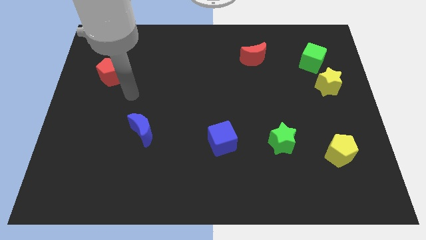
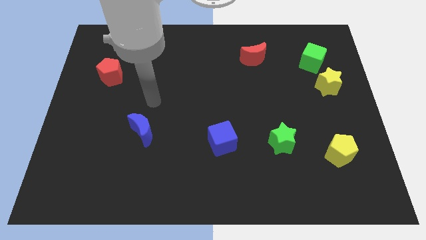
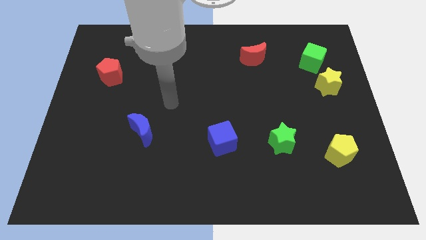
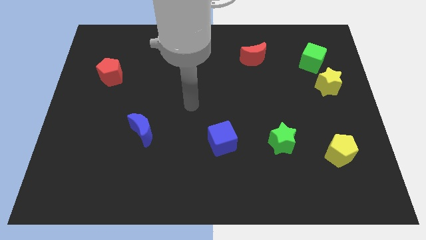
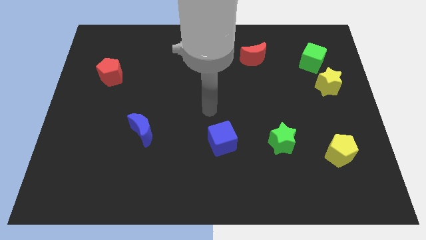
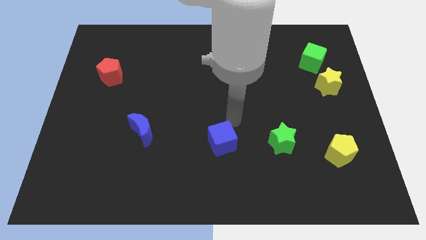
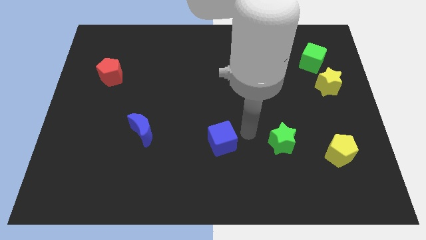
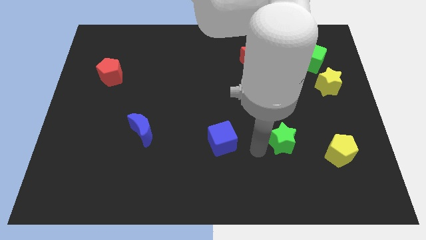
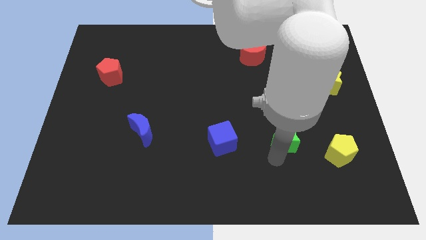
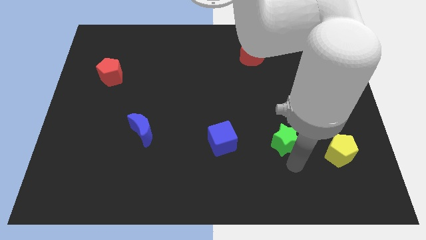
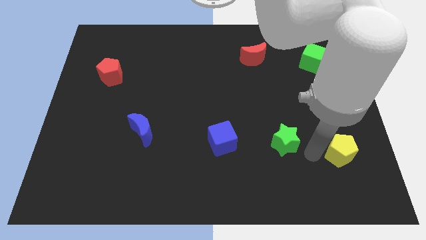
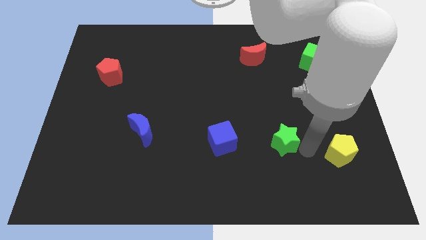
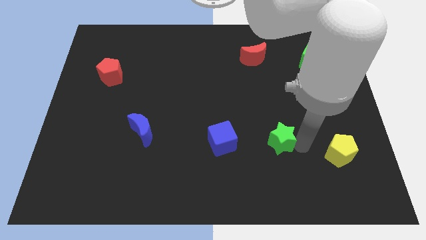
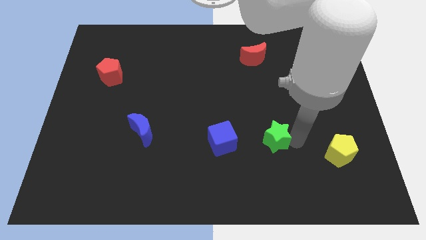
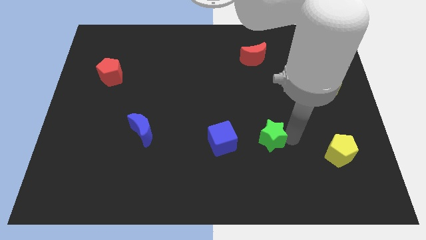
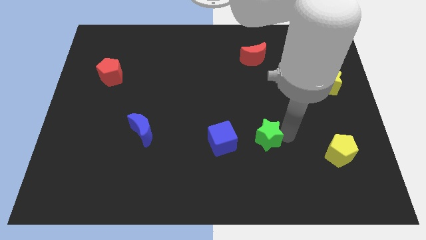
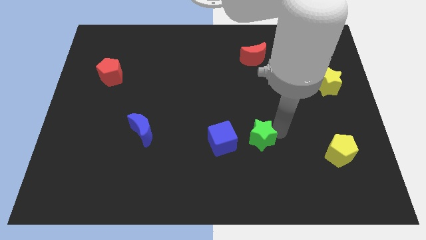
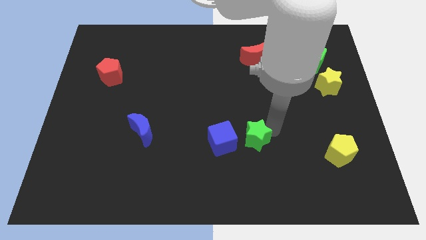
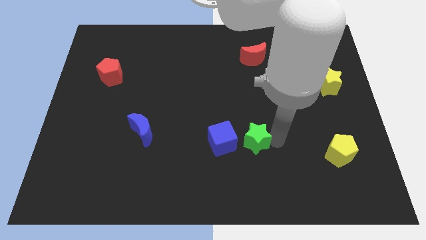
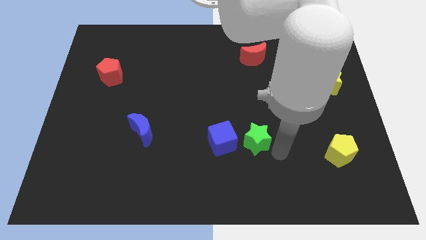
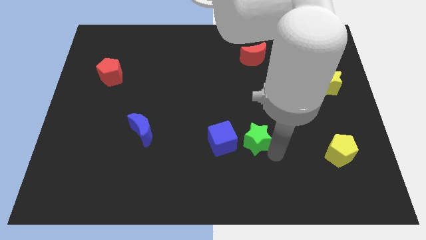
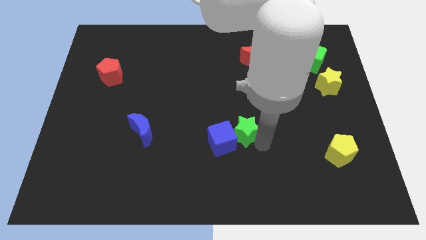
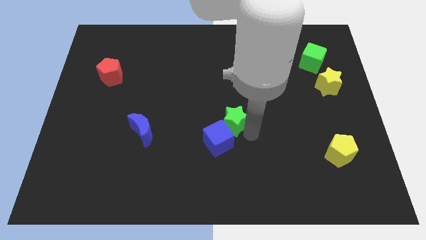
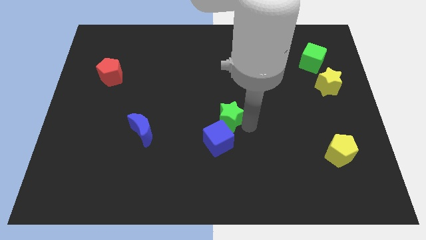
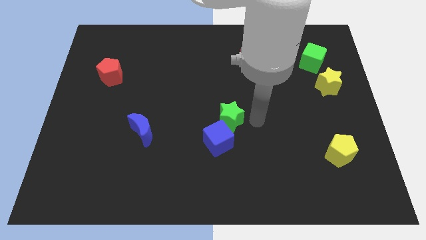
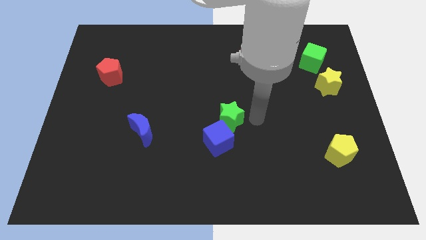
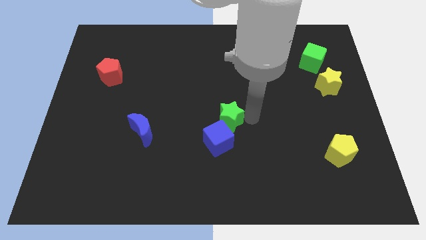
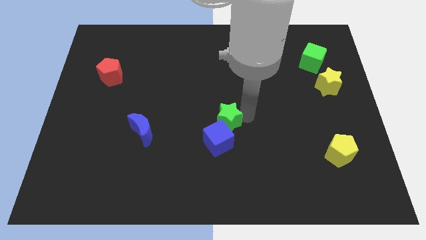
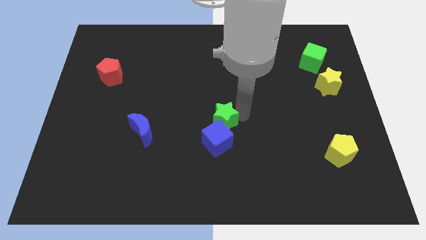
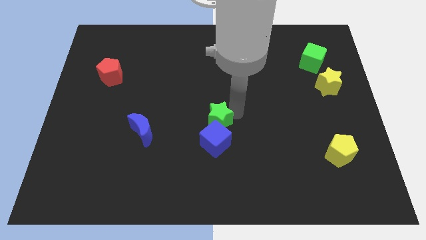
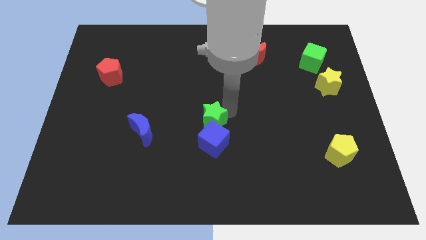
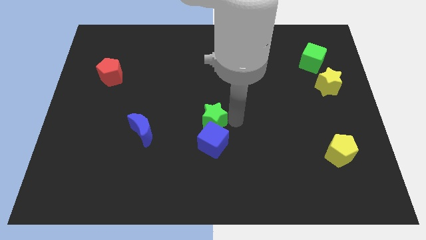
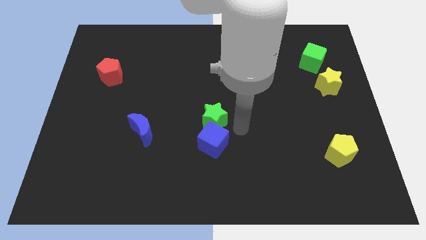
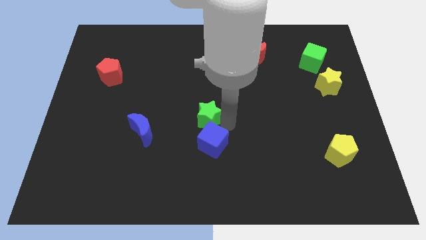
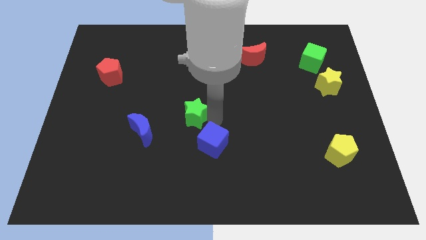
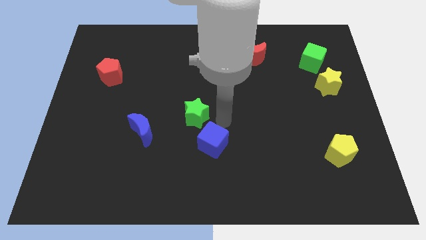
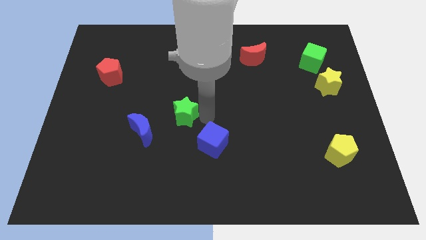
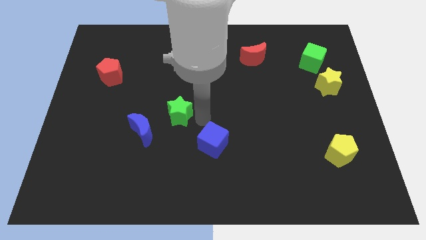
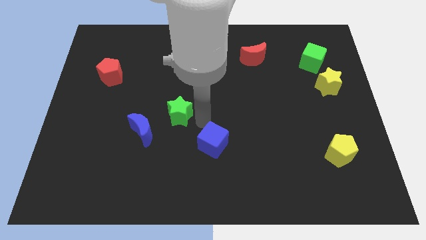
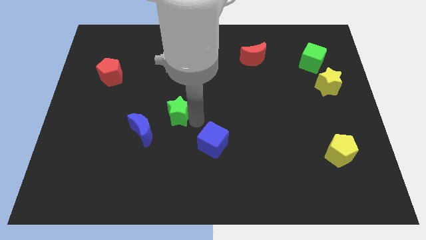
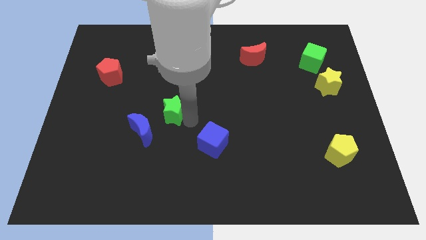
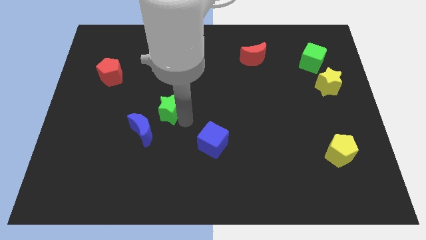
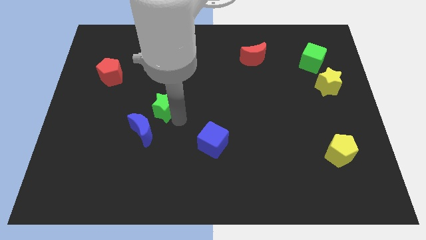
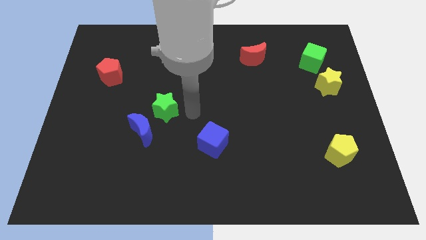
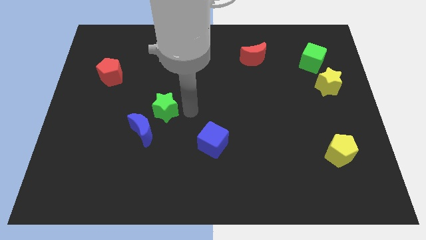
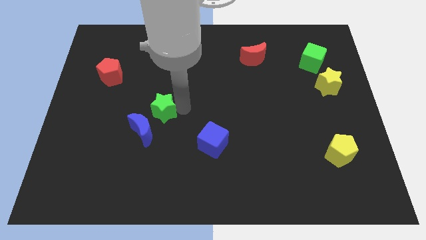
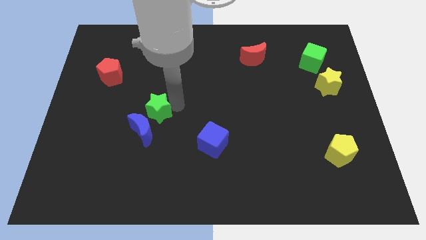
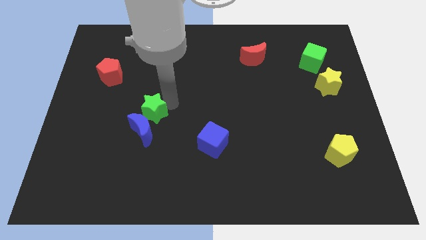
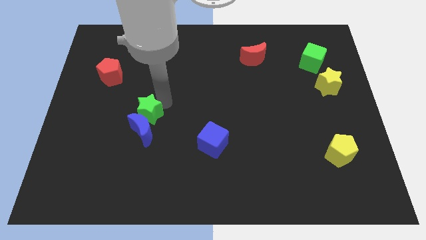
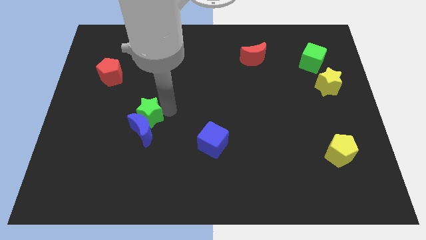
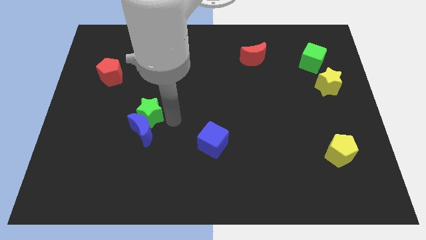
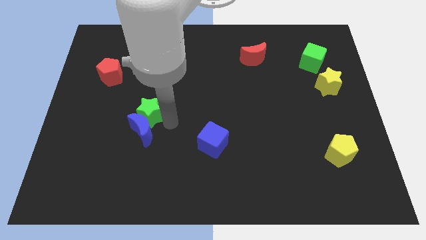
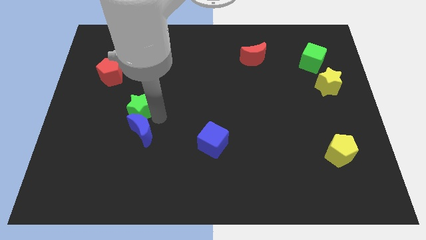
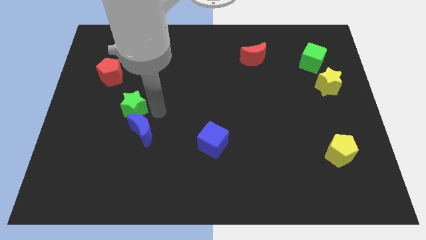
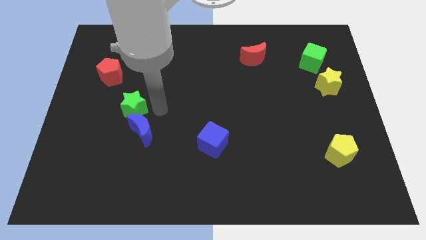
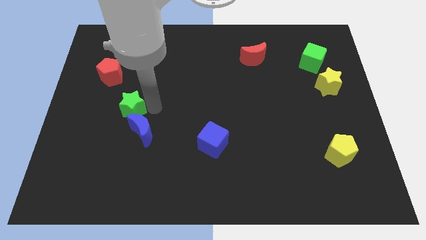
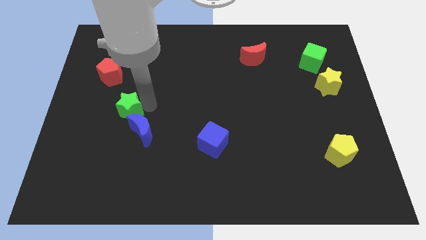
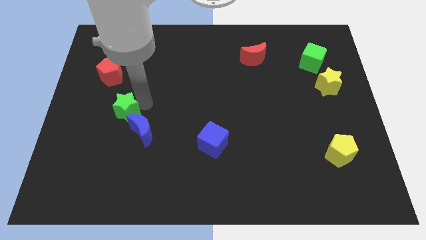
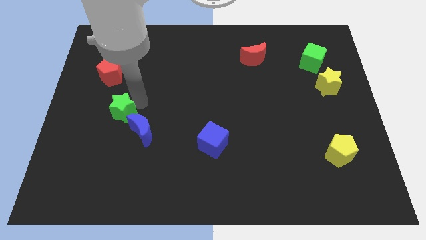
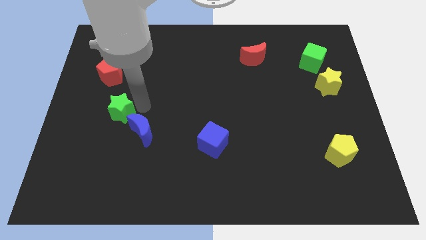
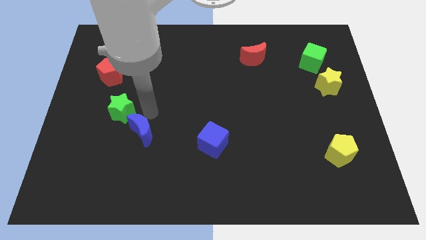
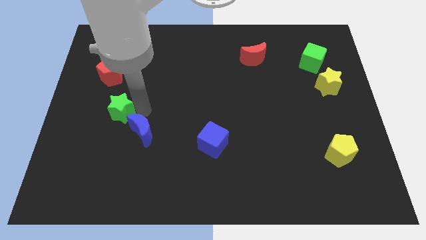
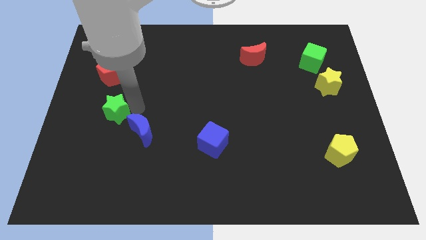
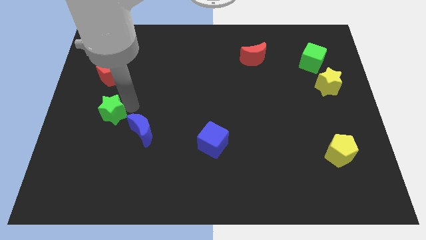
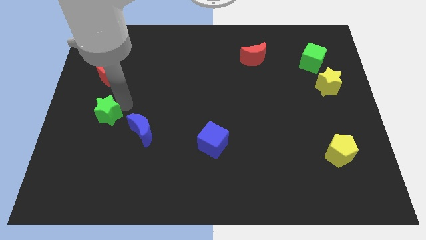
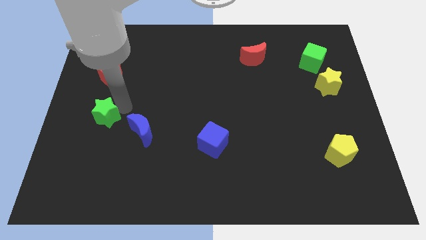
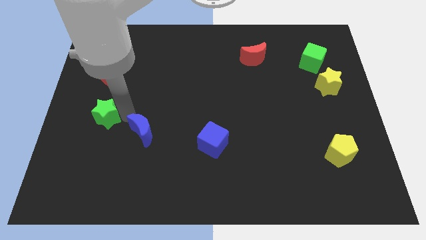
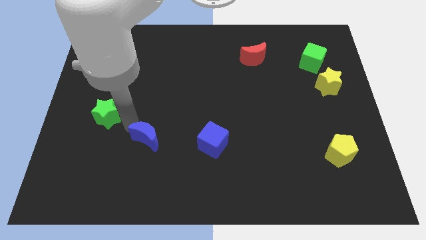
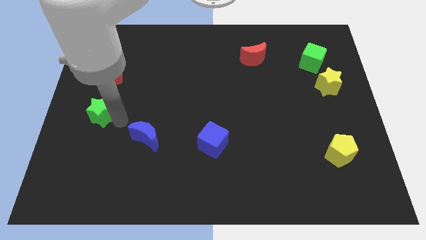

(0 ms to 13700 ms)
slide the green star to the left side
